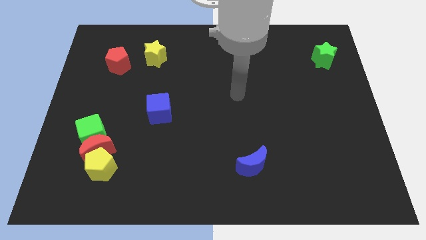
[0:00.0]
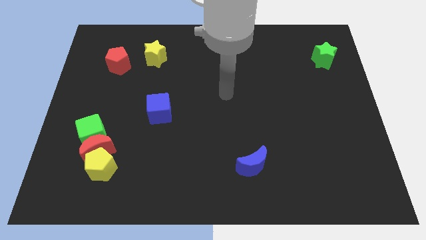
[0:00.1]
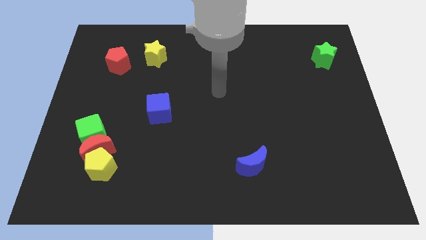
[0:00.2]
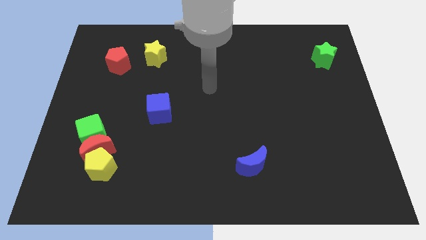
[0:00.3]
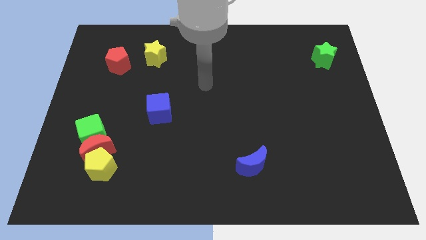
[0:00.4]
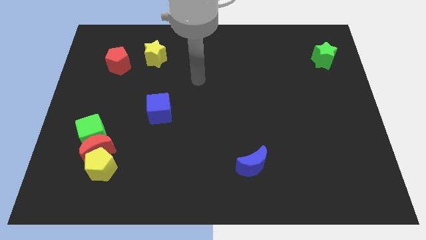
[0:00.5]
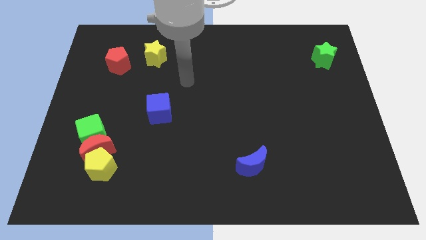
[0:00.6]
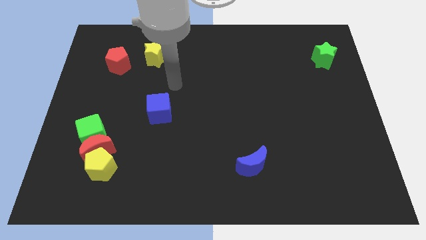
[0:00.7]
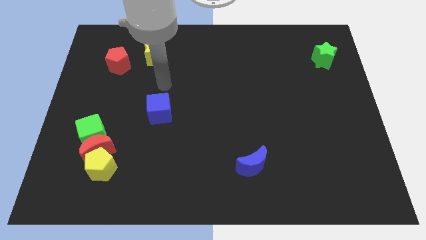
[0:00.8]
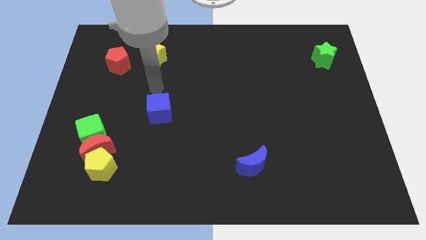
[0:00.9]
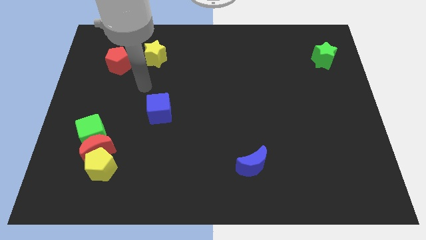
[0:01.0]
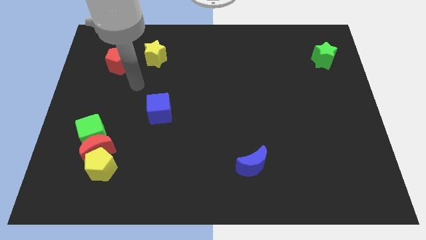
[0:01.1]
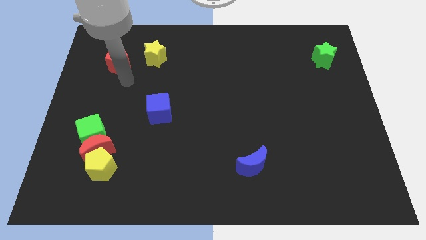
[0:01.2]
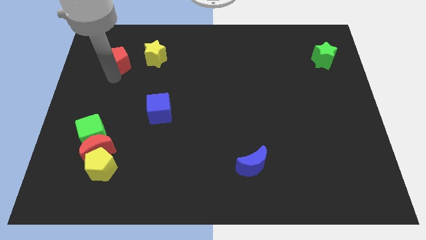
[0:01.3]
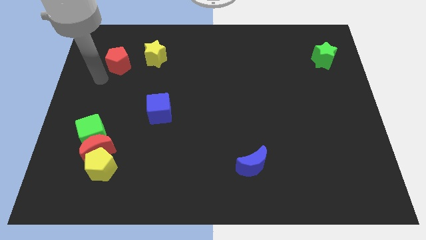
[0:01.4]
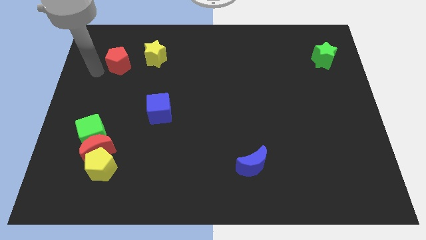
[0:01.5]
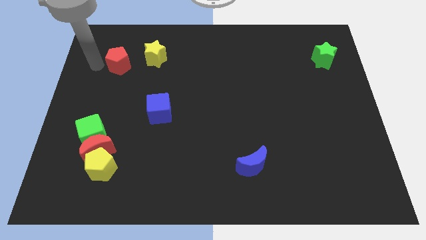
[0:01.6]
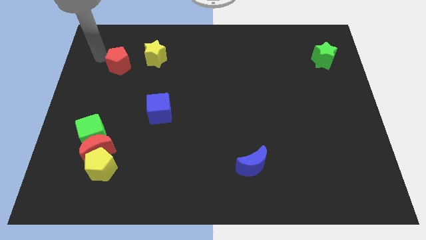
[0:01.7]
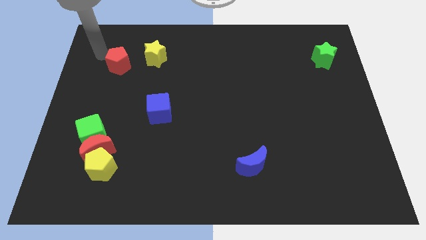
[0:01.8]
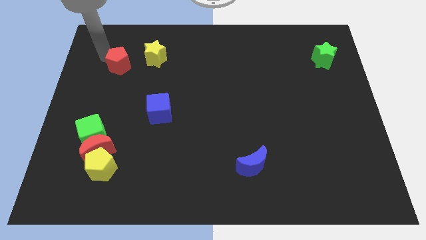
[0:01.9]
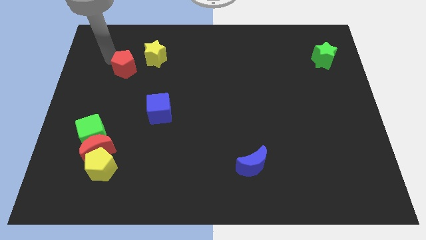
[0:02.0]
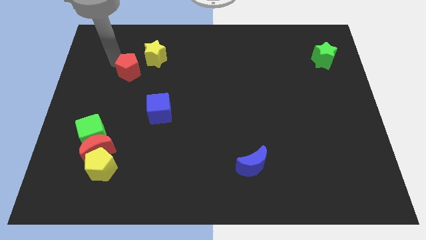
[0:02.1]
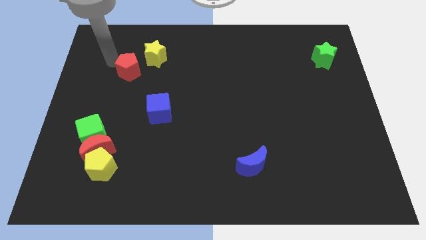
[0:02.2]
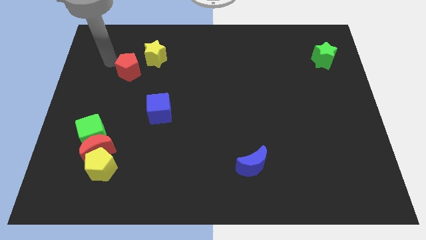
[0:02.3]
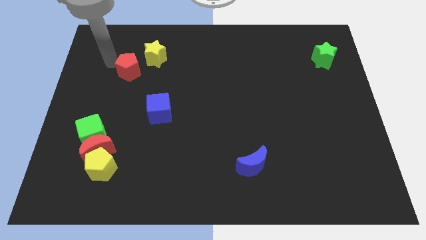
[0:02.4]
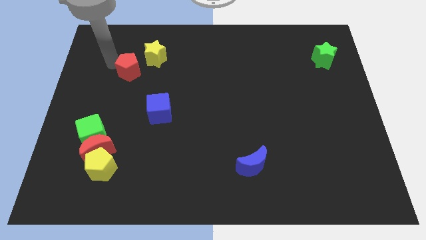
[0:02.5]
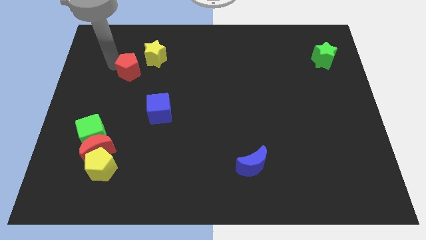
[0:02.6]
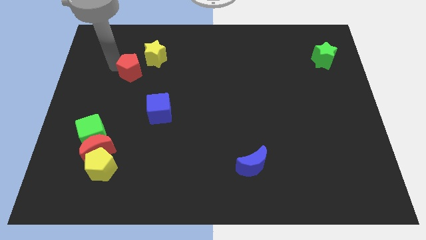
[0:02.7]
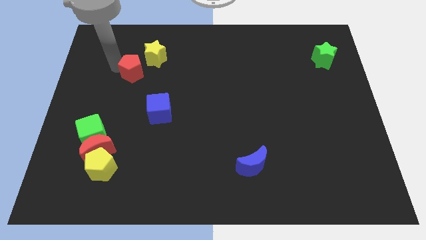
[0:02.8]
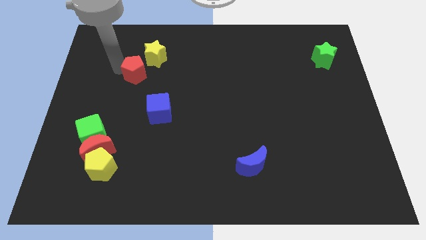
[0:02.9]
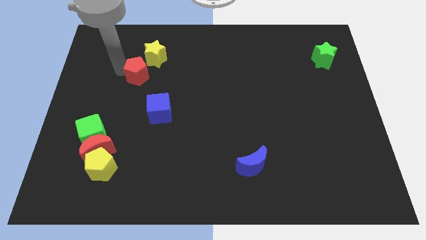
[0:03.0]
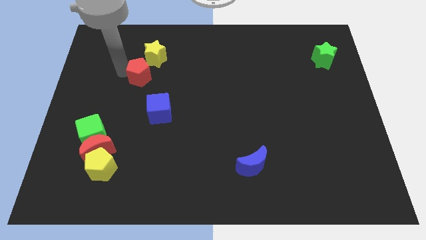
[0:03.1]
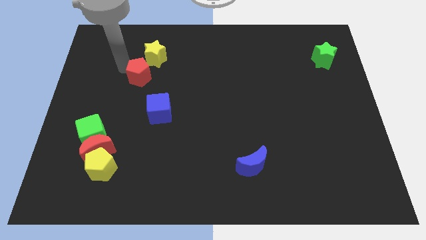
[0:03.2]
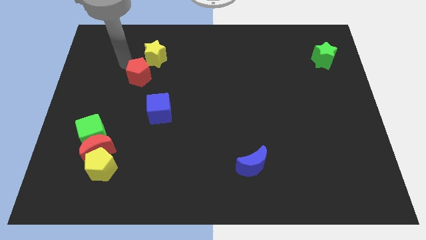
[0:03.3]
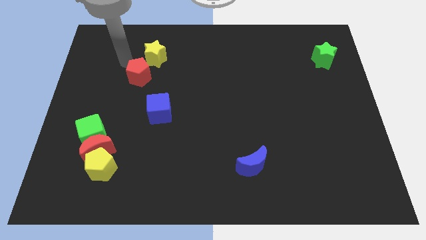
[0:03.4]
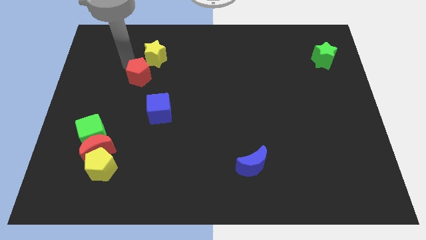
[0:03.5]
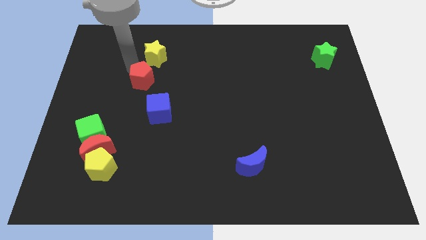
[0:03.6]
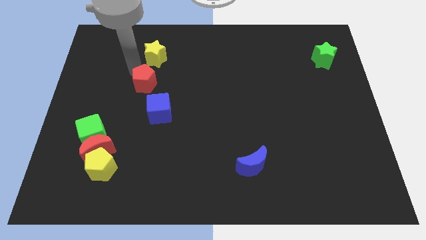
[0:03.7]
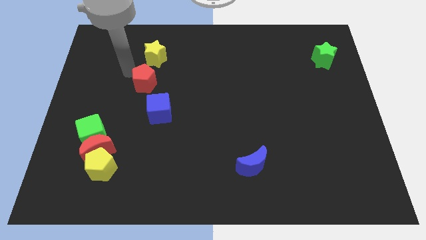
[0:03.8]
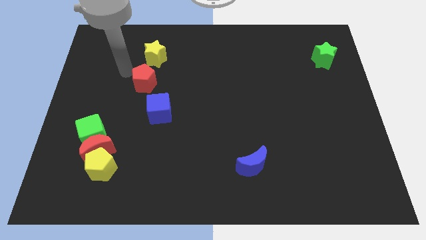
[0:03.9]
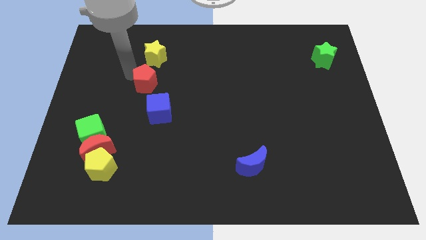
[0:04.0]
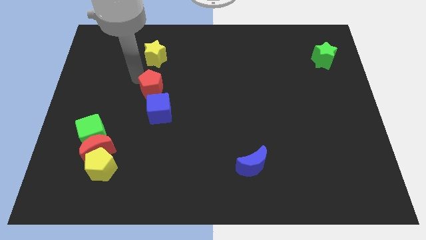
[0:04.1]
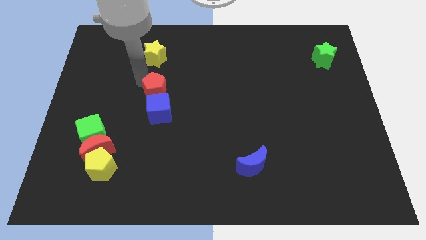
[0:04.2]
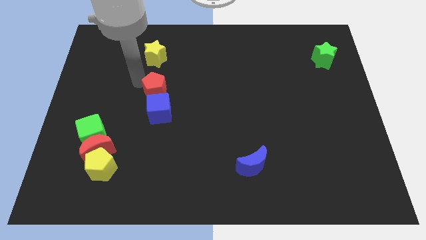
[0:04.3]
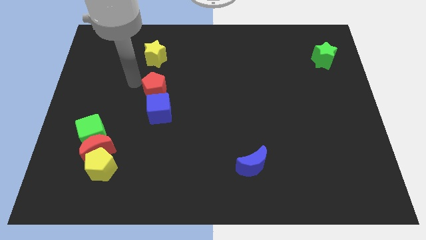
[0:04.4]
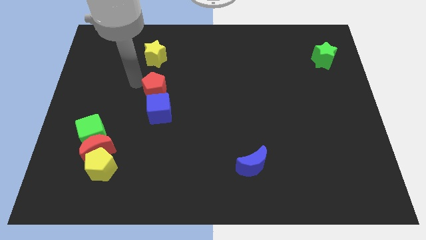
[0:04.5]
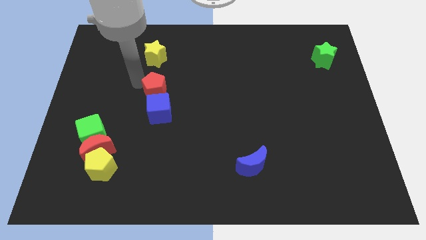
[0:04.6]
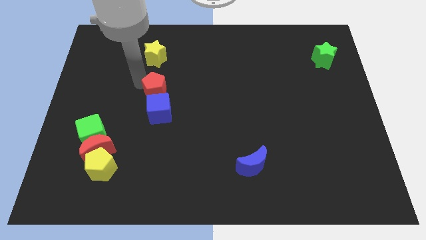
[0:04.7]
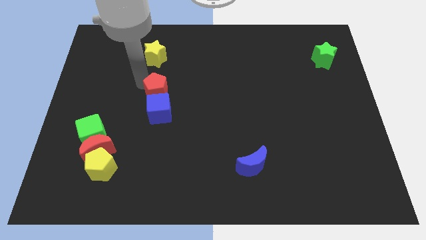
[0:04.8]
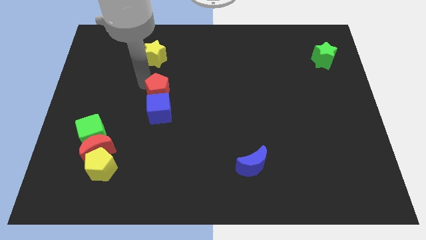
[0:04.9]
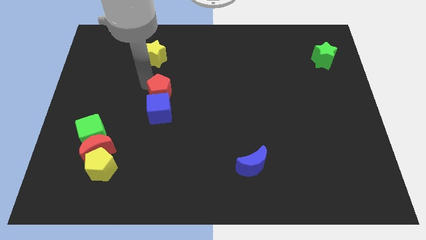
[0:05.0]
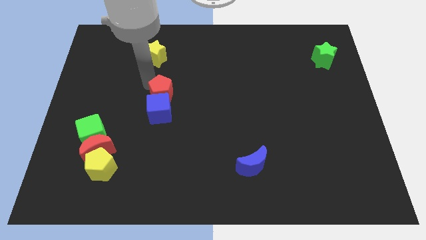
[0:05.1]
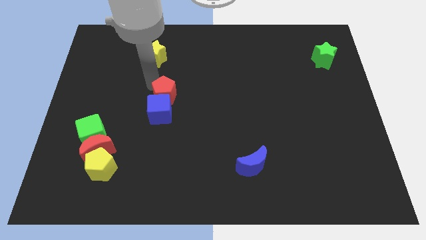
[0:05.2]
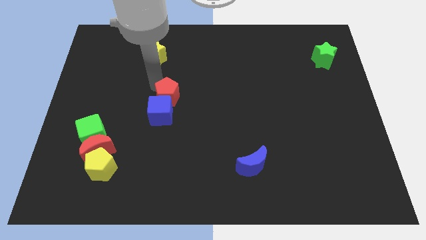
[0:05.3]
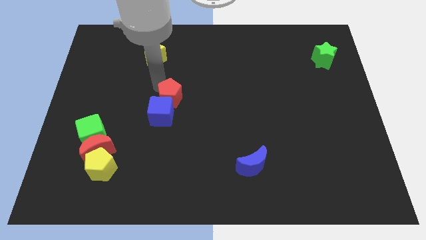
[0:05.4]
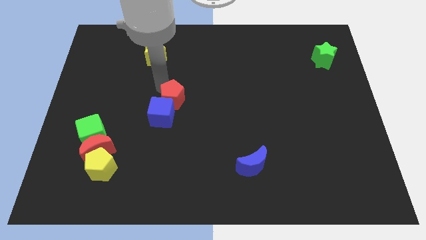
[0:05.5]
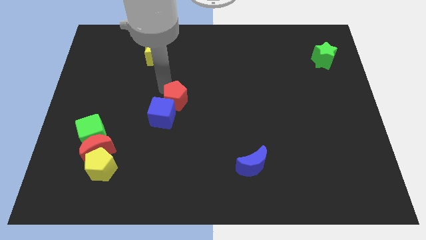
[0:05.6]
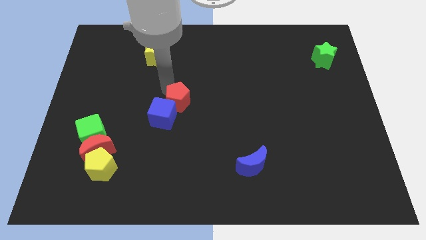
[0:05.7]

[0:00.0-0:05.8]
push the red pentagon downwards and right

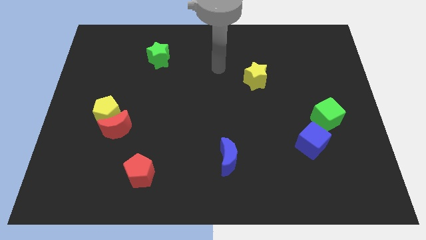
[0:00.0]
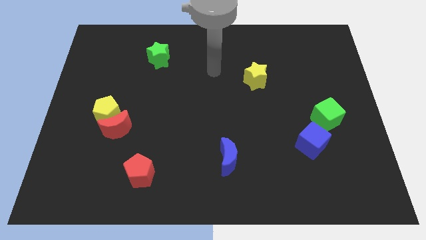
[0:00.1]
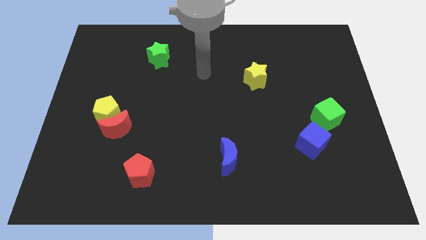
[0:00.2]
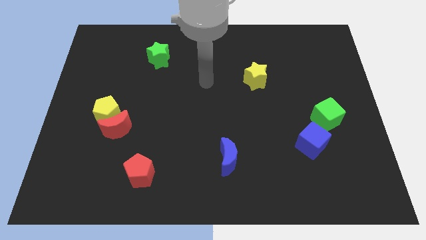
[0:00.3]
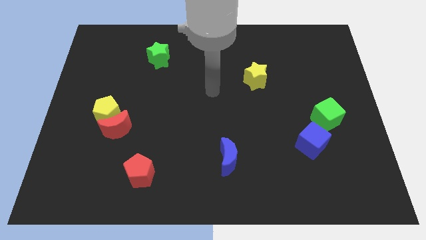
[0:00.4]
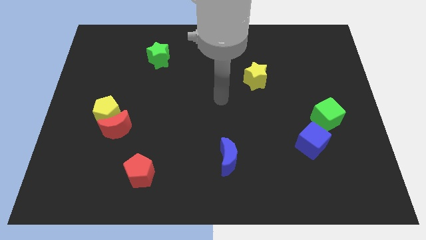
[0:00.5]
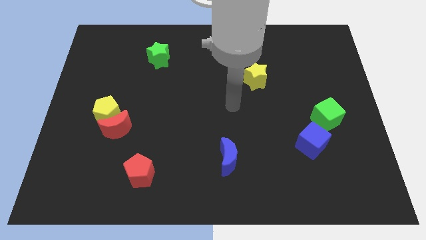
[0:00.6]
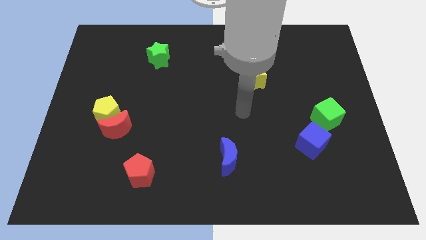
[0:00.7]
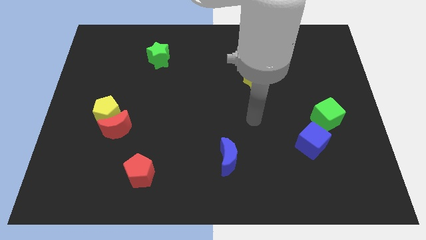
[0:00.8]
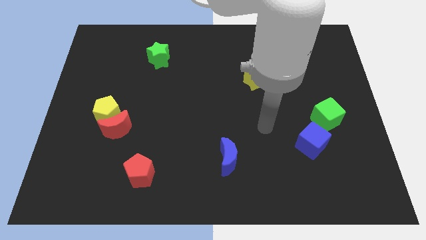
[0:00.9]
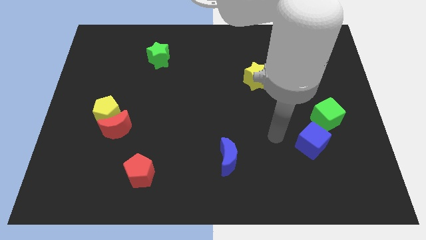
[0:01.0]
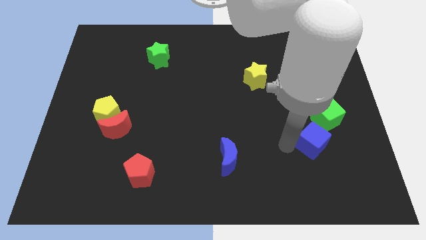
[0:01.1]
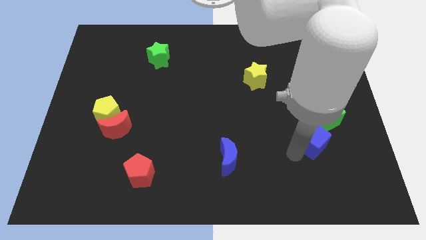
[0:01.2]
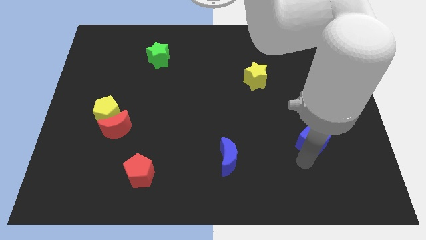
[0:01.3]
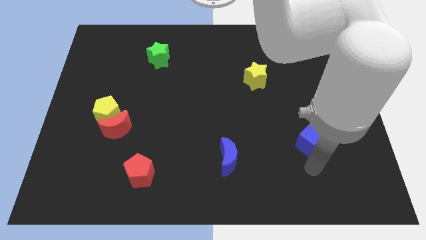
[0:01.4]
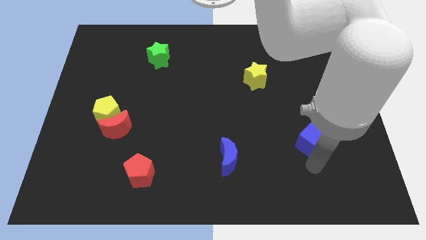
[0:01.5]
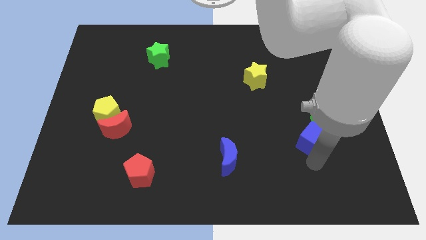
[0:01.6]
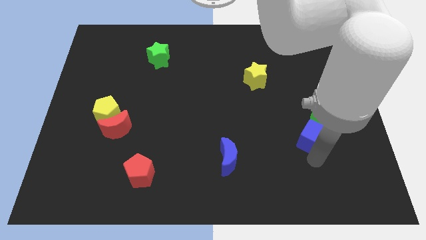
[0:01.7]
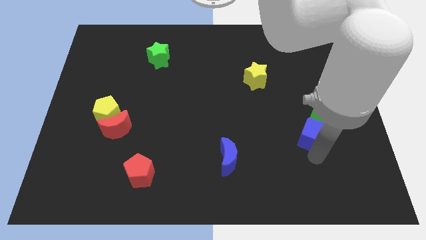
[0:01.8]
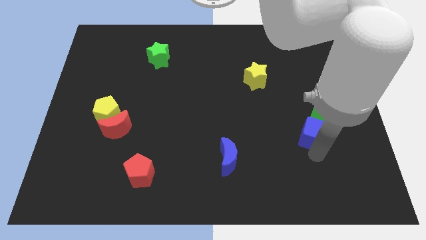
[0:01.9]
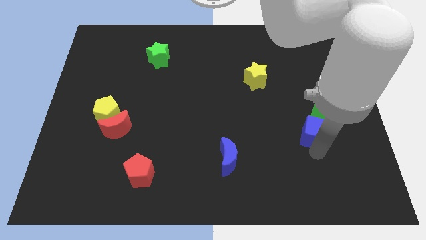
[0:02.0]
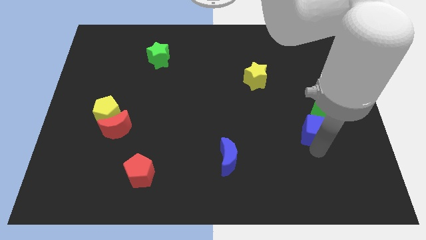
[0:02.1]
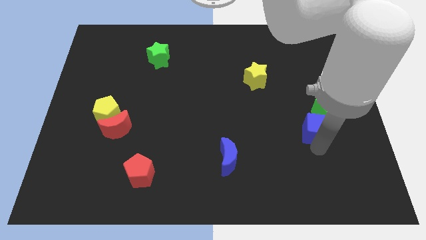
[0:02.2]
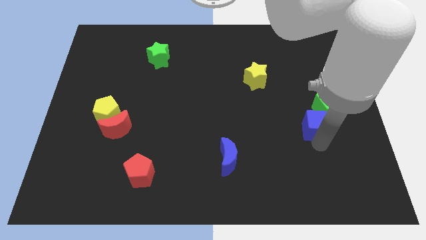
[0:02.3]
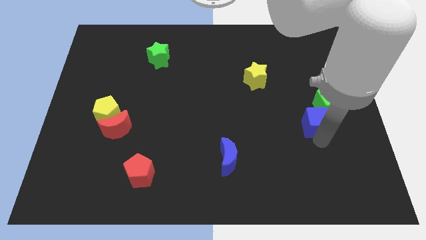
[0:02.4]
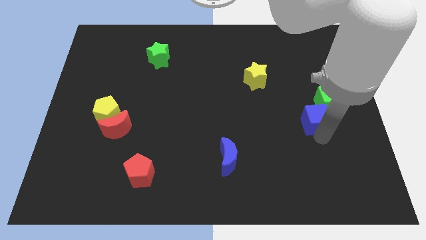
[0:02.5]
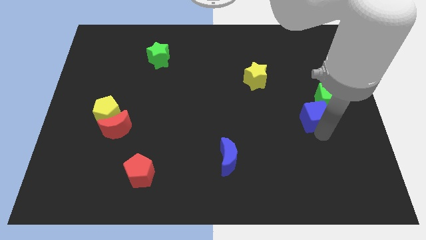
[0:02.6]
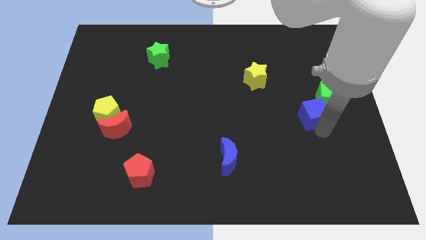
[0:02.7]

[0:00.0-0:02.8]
slightly push the blue cube up
